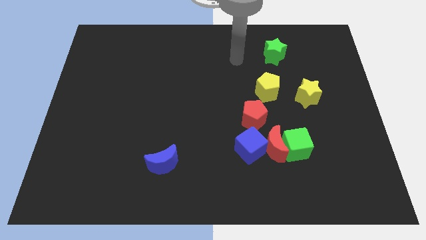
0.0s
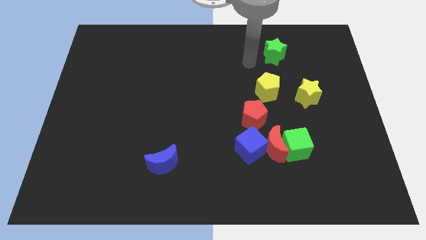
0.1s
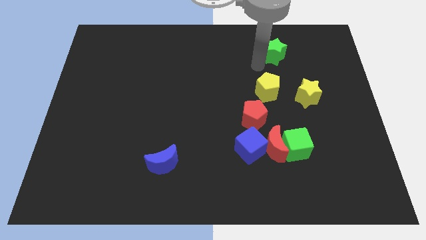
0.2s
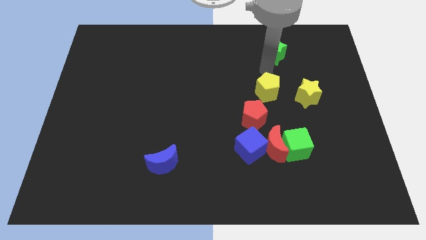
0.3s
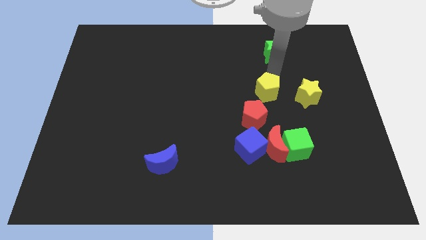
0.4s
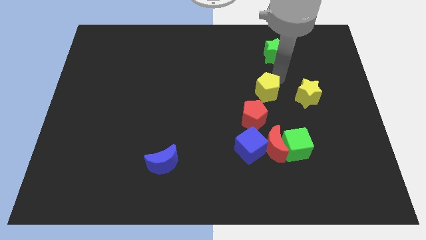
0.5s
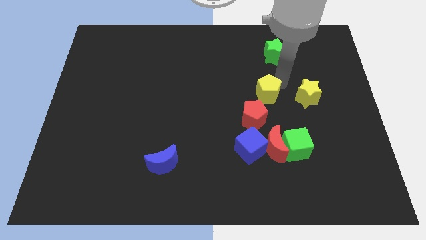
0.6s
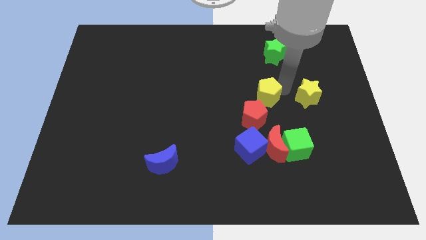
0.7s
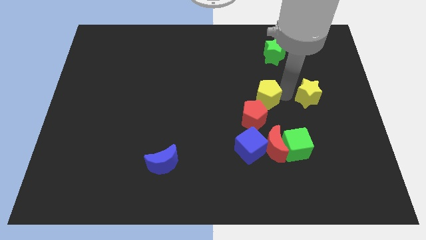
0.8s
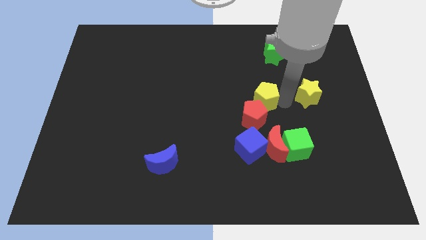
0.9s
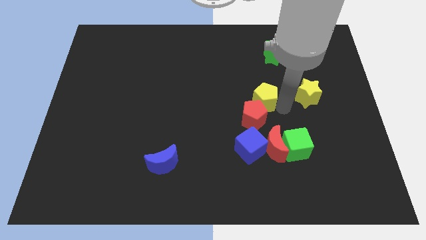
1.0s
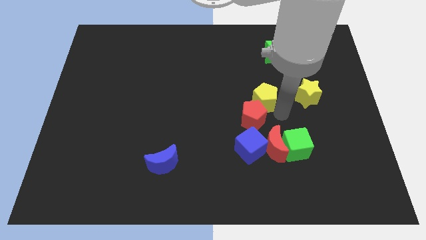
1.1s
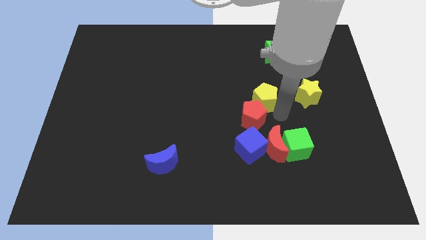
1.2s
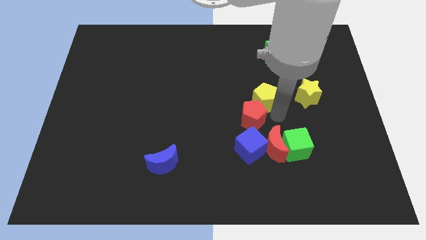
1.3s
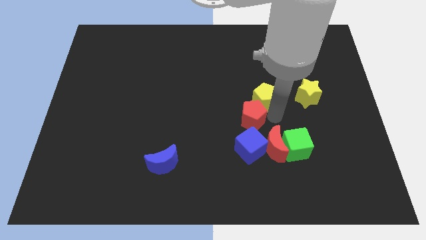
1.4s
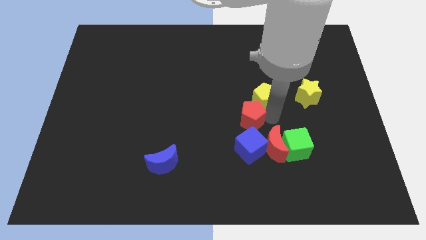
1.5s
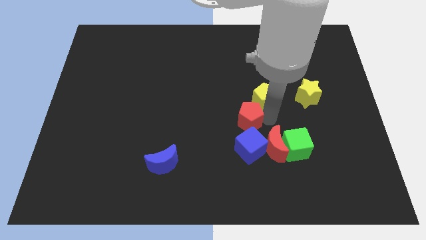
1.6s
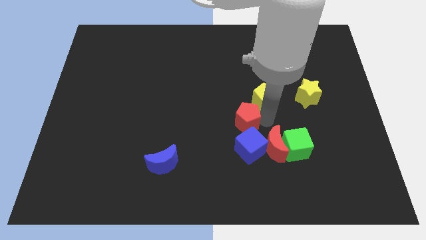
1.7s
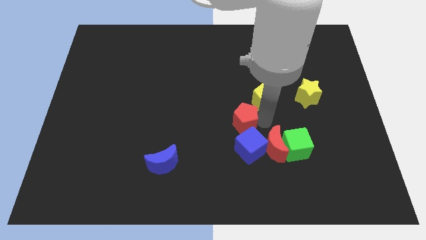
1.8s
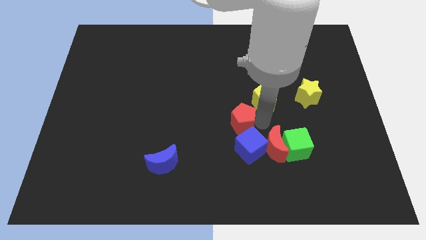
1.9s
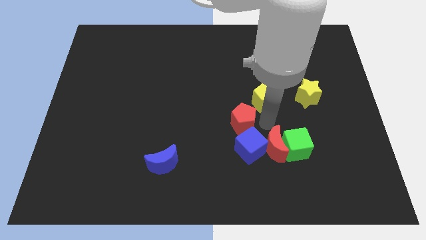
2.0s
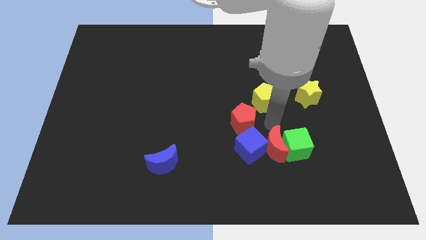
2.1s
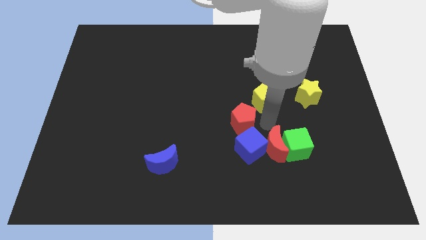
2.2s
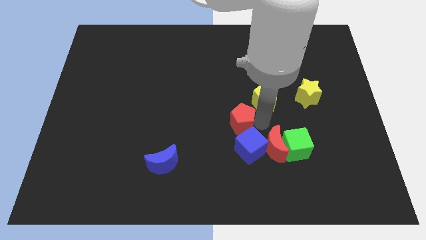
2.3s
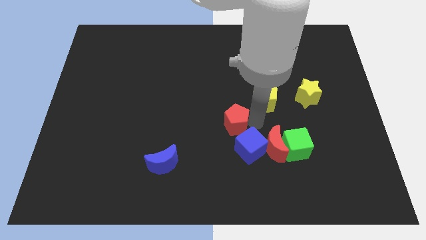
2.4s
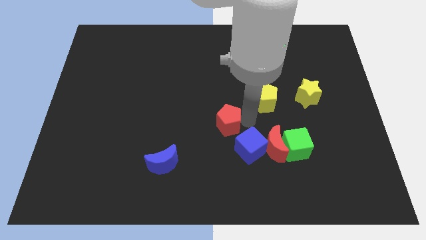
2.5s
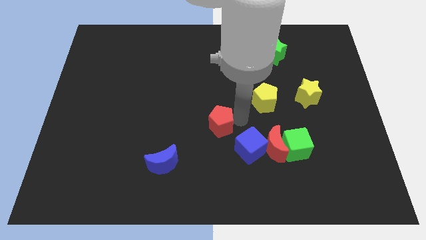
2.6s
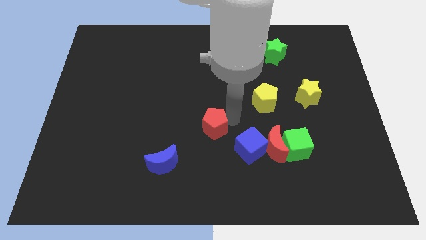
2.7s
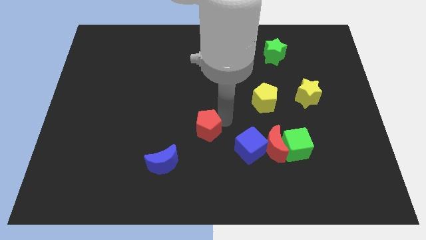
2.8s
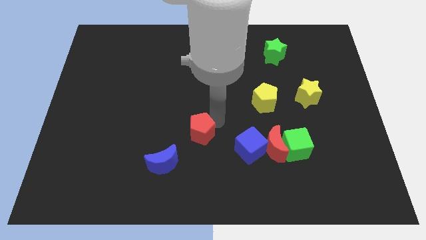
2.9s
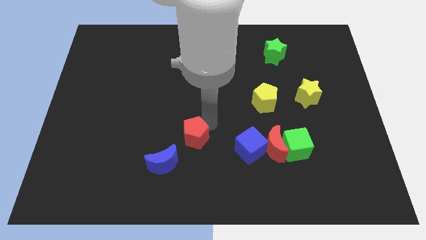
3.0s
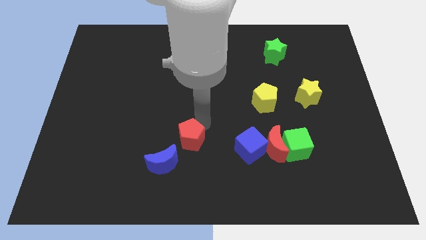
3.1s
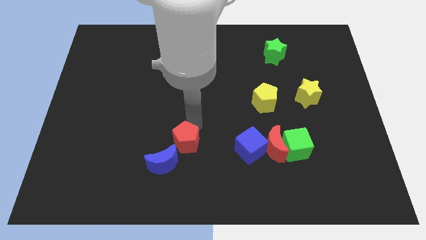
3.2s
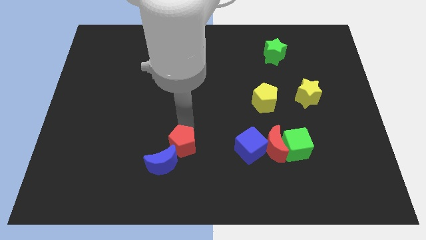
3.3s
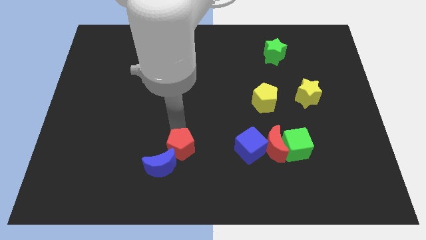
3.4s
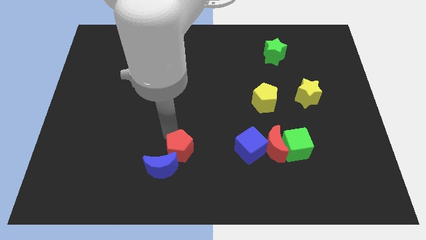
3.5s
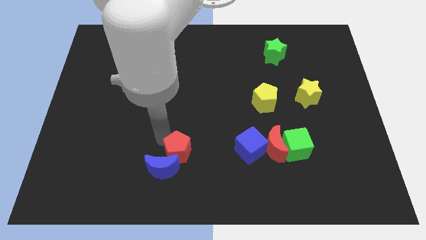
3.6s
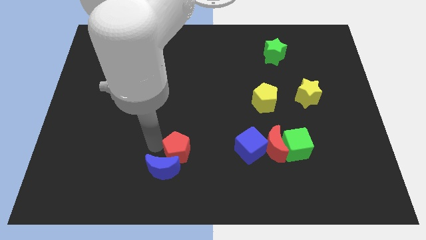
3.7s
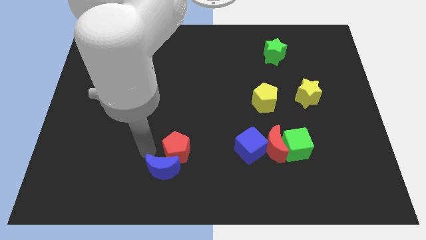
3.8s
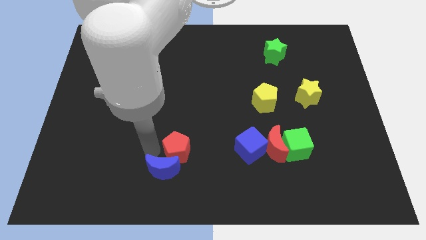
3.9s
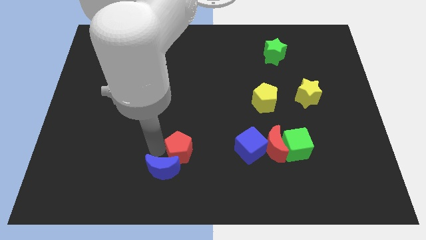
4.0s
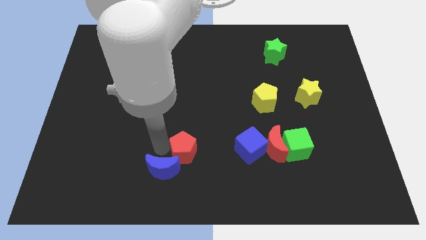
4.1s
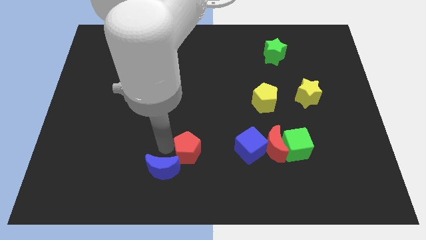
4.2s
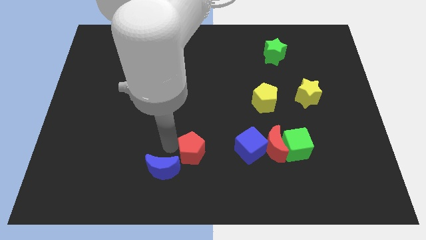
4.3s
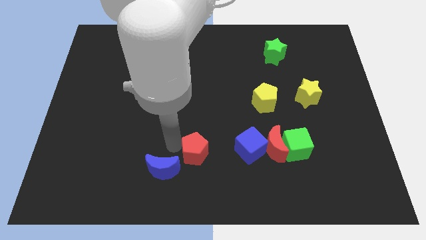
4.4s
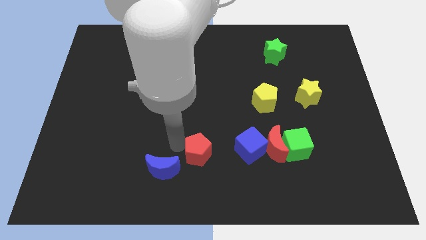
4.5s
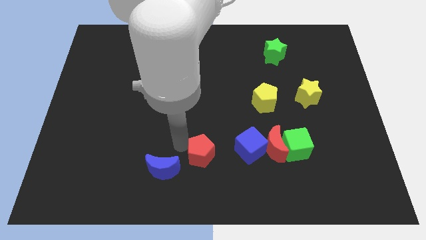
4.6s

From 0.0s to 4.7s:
put the red pentagon to the left of the red moon

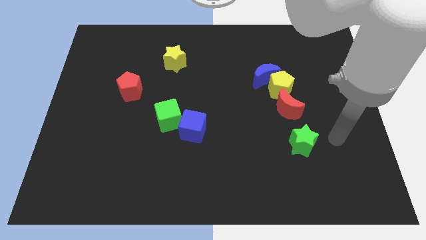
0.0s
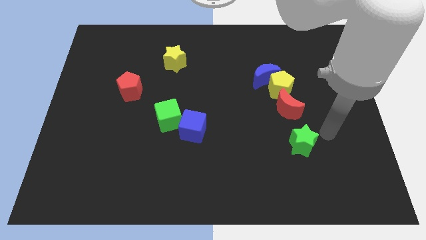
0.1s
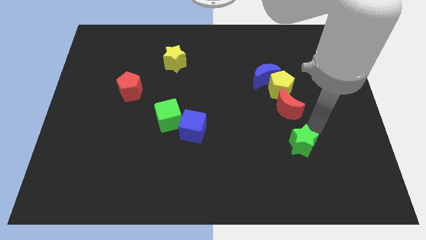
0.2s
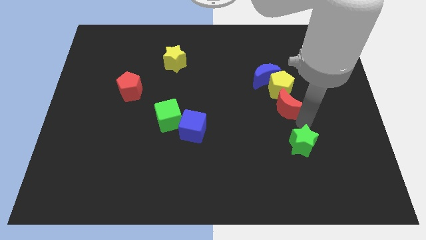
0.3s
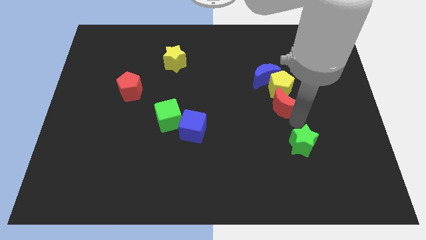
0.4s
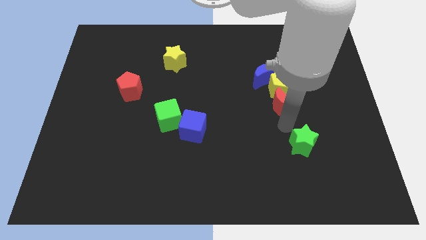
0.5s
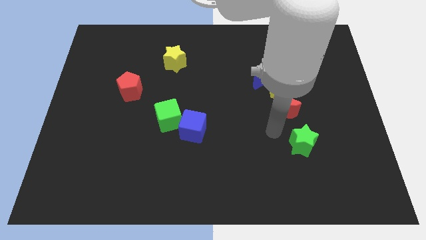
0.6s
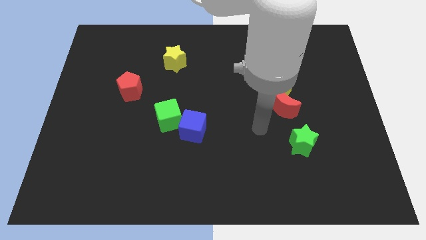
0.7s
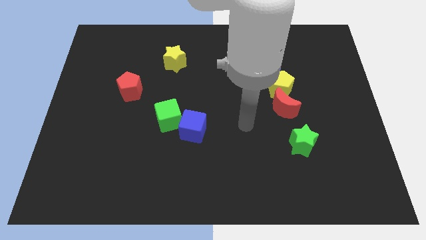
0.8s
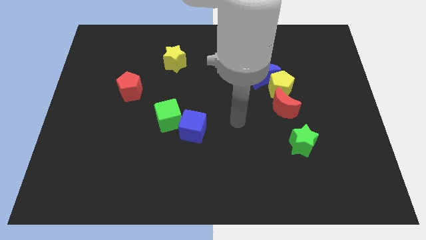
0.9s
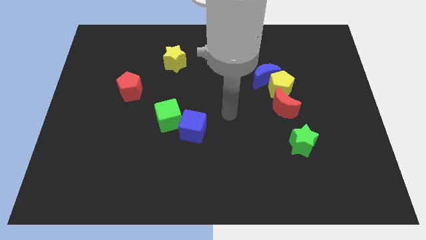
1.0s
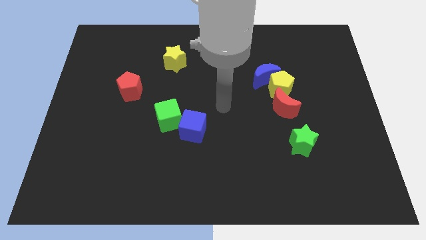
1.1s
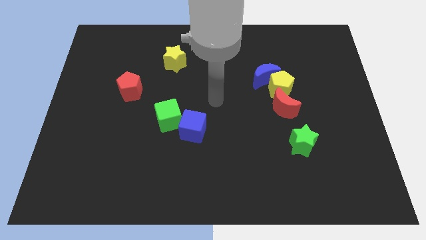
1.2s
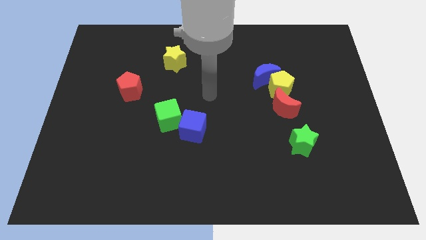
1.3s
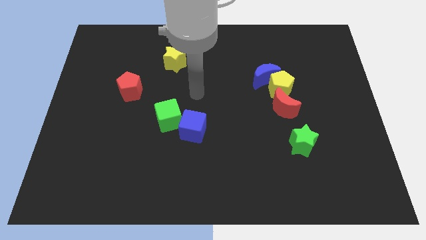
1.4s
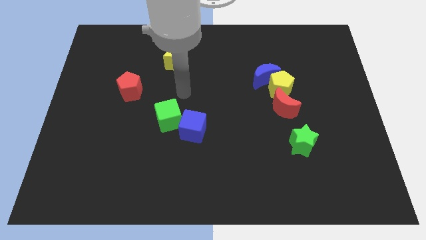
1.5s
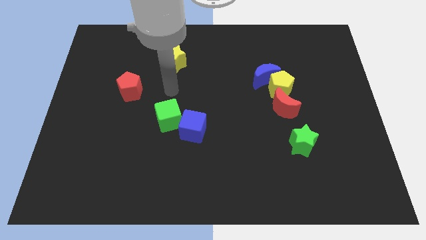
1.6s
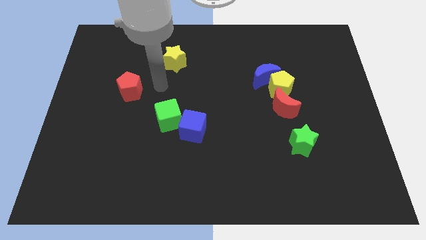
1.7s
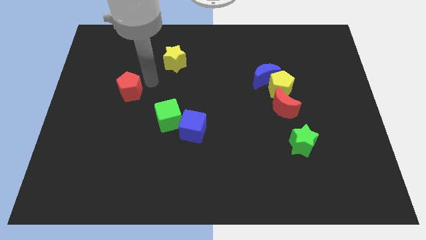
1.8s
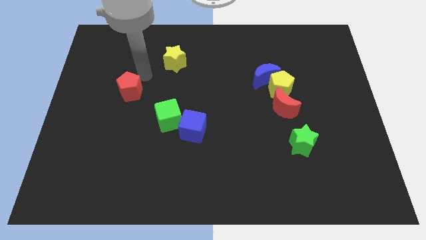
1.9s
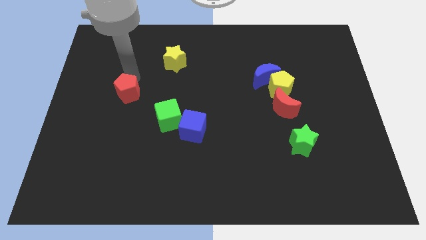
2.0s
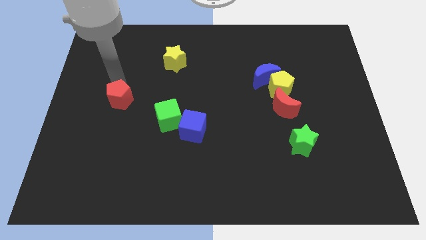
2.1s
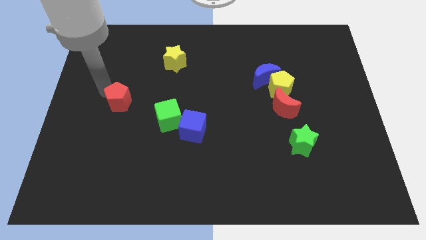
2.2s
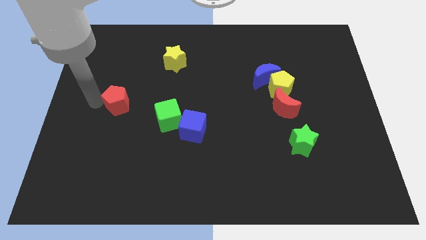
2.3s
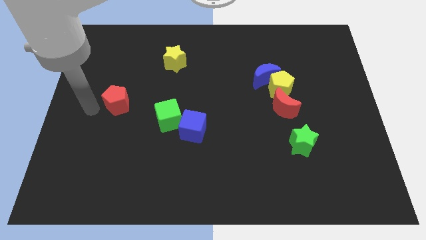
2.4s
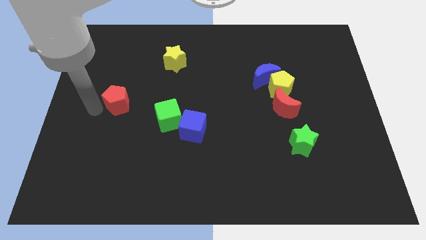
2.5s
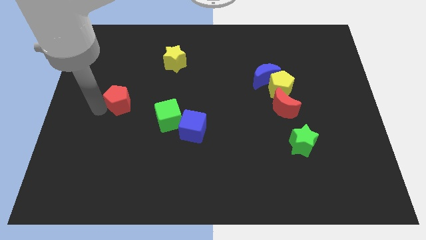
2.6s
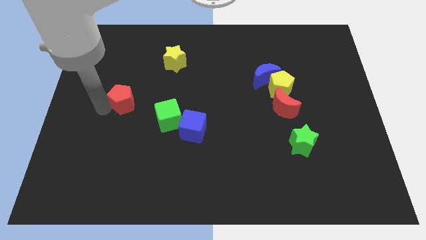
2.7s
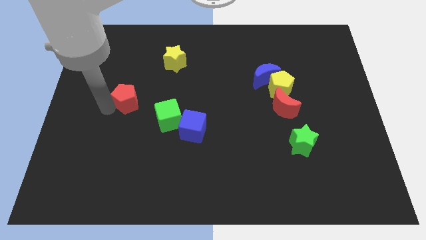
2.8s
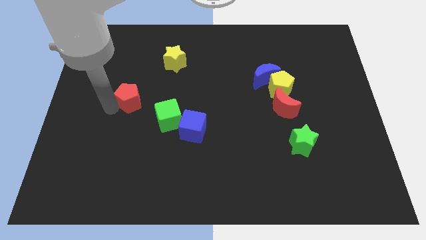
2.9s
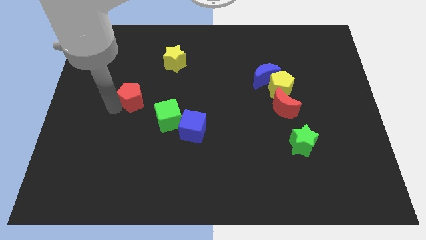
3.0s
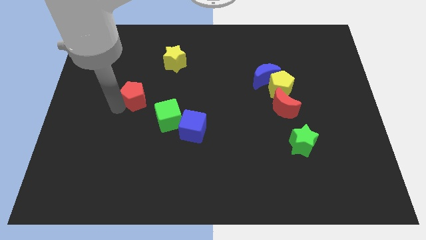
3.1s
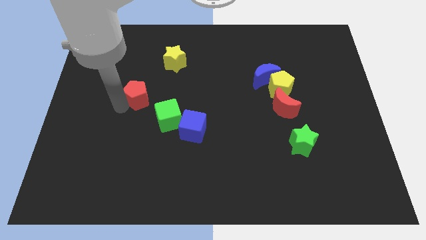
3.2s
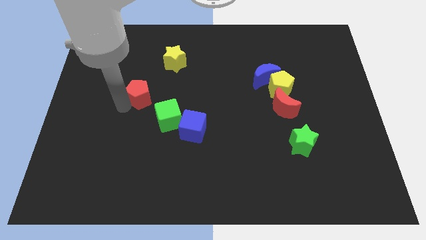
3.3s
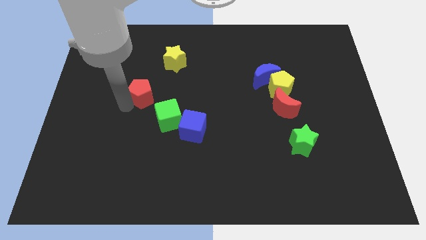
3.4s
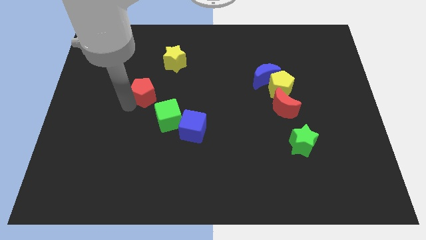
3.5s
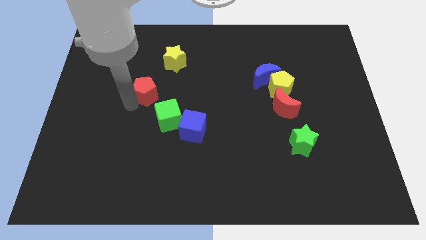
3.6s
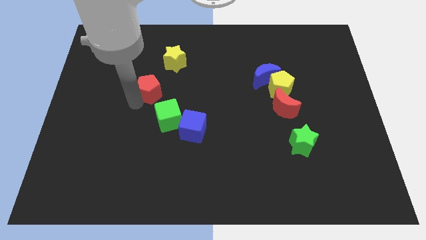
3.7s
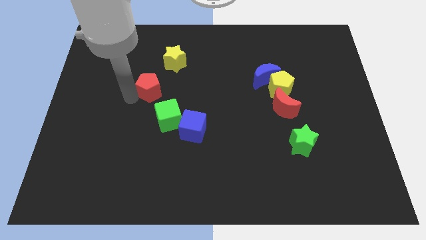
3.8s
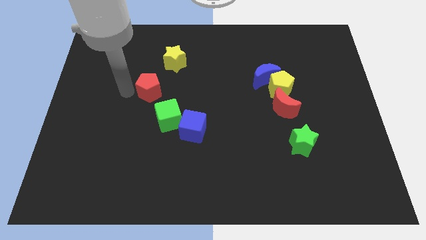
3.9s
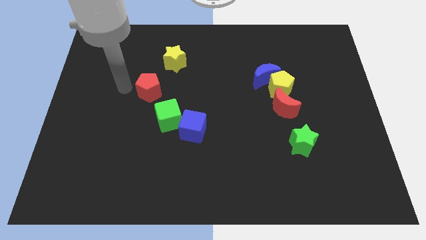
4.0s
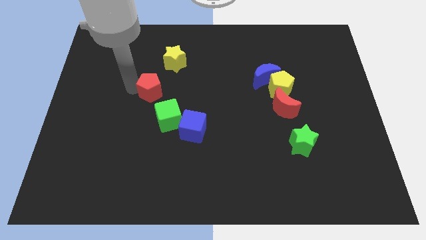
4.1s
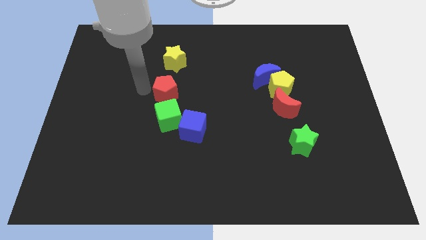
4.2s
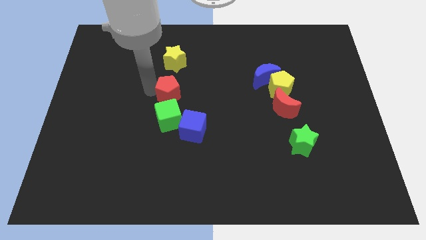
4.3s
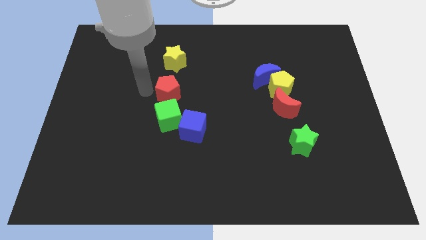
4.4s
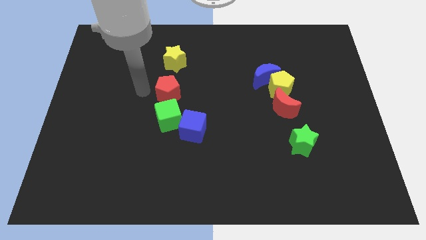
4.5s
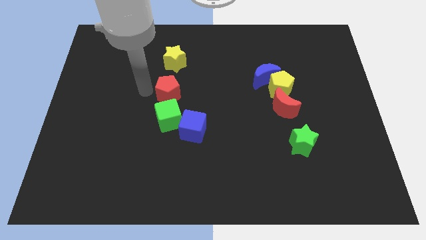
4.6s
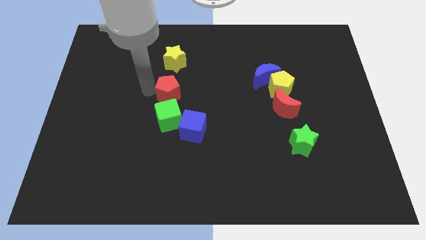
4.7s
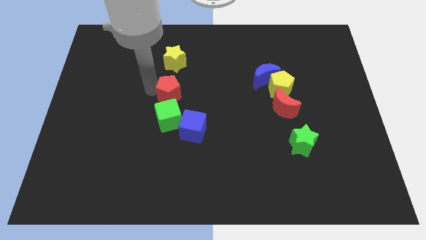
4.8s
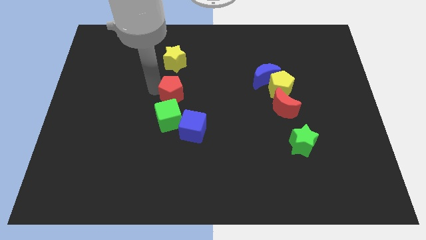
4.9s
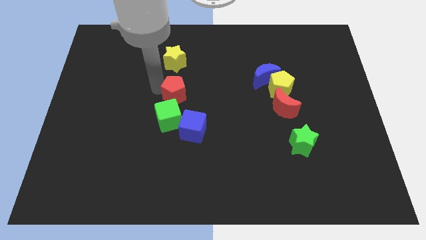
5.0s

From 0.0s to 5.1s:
push the red pentagon to the top of the blue cube
